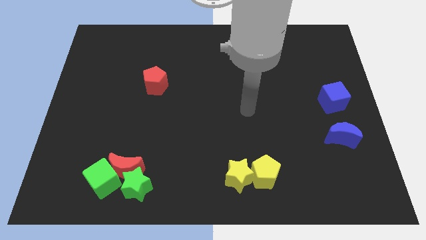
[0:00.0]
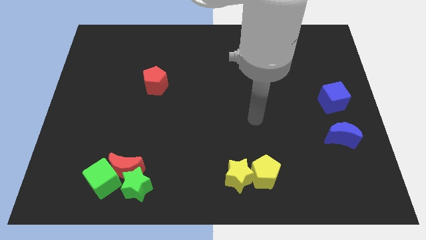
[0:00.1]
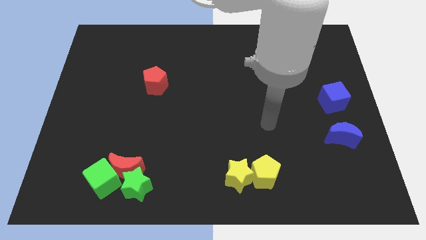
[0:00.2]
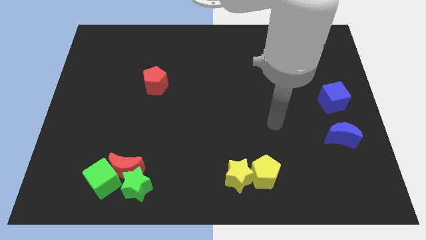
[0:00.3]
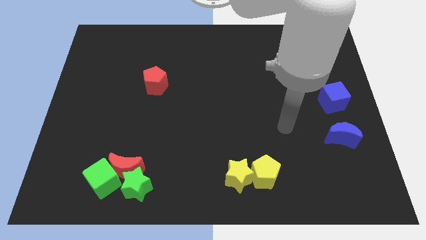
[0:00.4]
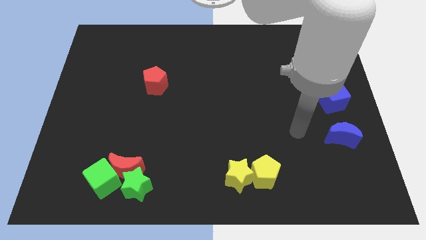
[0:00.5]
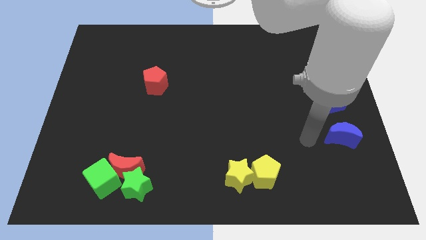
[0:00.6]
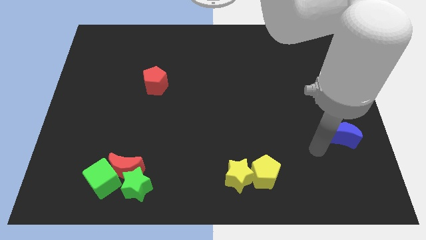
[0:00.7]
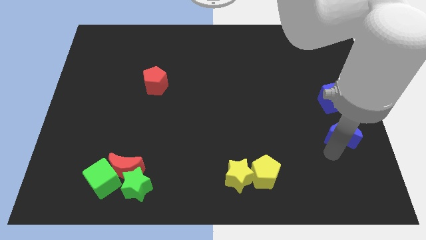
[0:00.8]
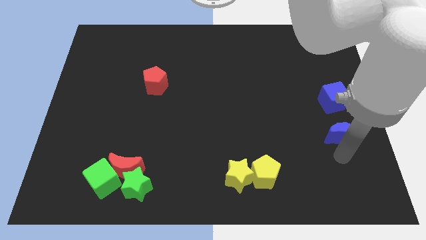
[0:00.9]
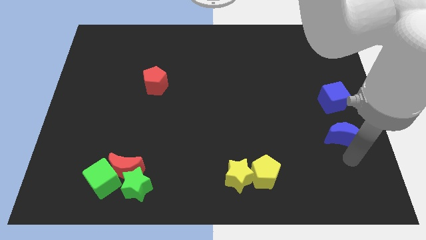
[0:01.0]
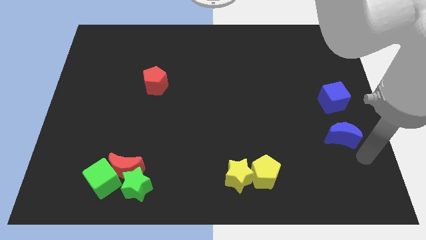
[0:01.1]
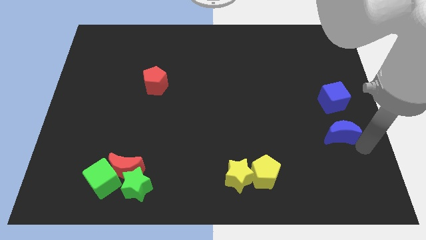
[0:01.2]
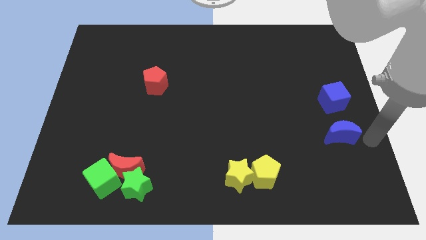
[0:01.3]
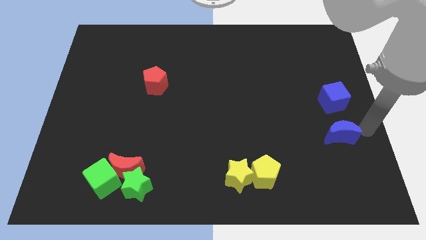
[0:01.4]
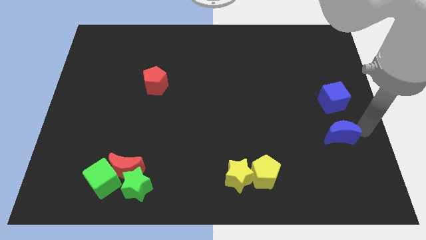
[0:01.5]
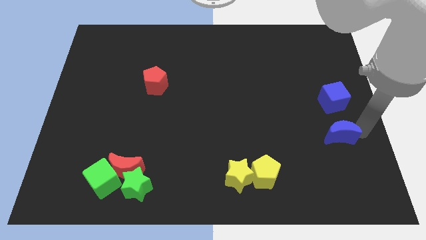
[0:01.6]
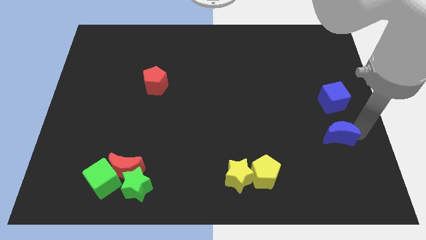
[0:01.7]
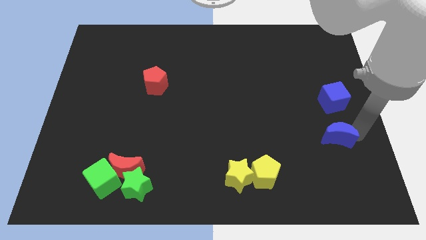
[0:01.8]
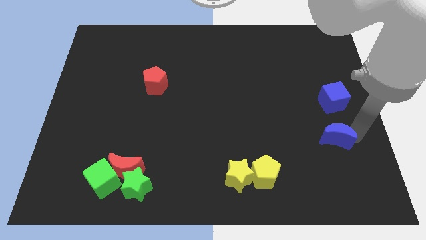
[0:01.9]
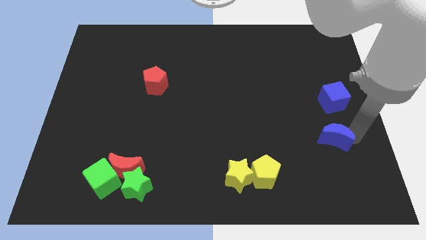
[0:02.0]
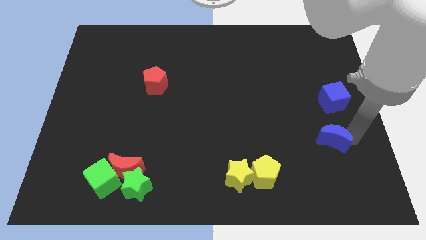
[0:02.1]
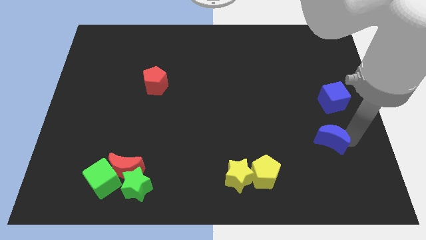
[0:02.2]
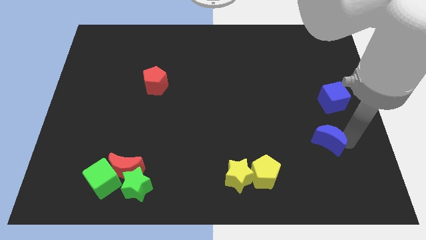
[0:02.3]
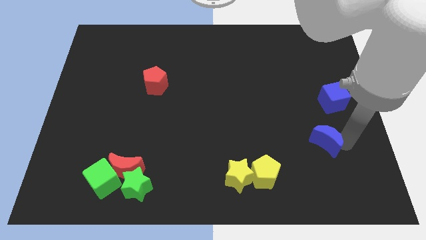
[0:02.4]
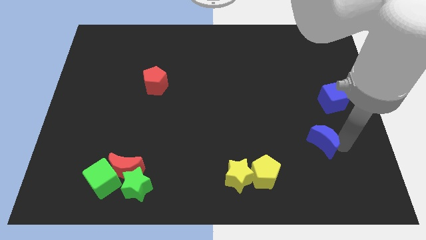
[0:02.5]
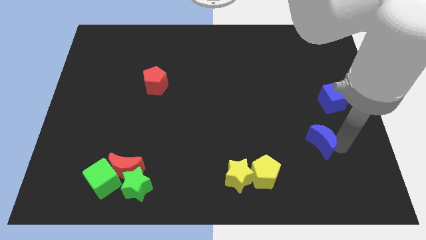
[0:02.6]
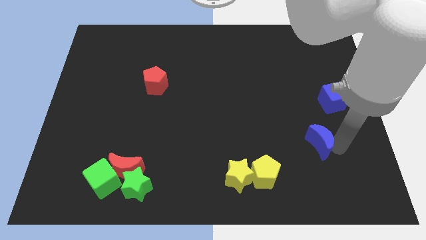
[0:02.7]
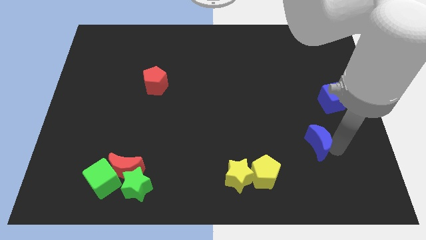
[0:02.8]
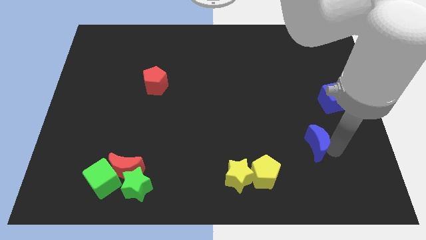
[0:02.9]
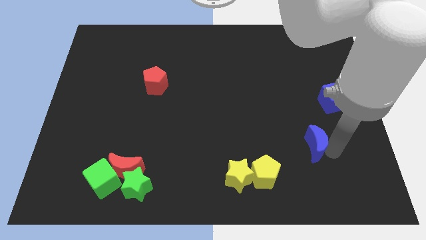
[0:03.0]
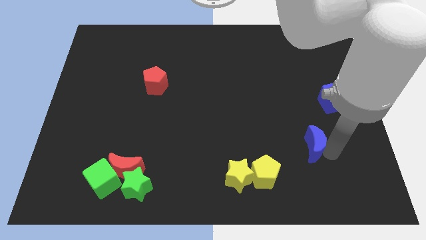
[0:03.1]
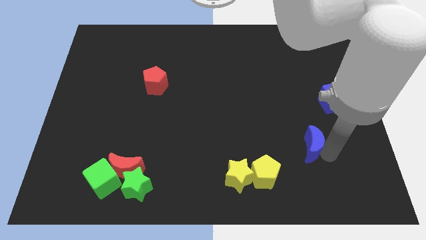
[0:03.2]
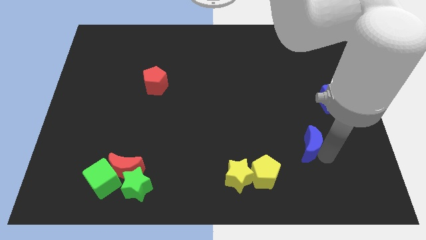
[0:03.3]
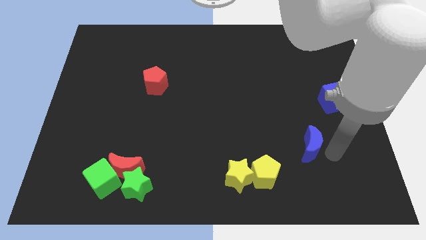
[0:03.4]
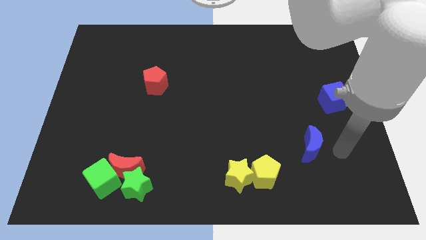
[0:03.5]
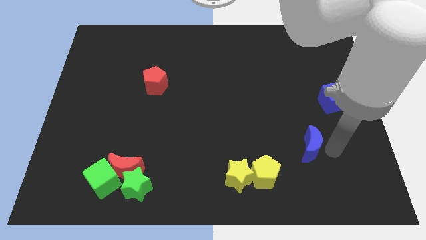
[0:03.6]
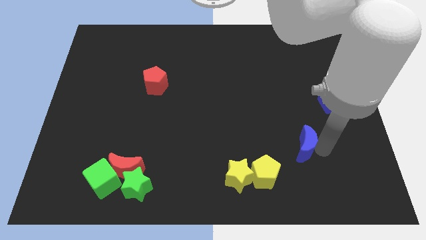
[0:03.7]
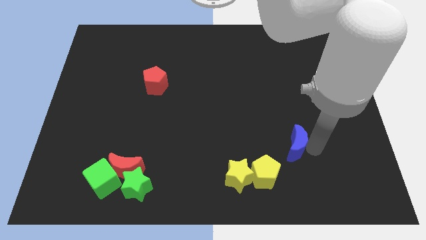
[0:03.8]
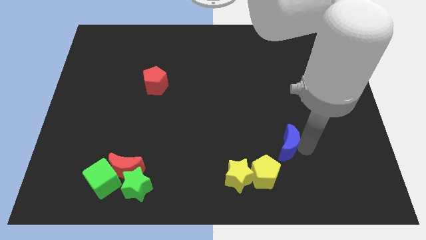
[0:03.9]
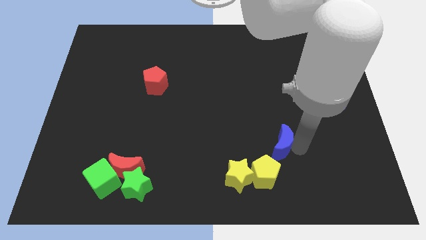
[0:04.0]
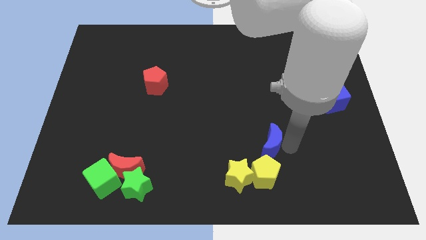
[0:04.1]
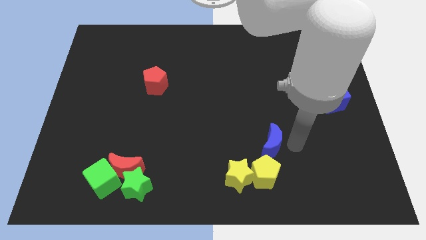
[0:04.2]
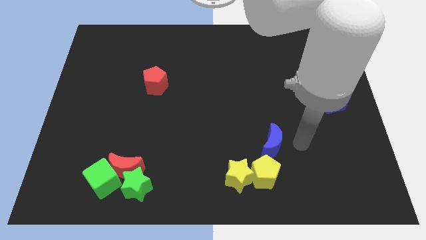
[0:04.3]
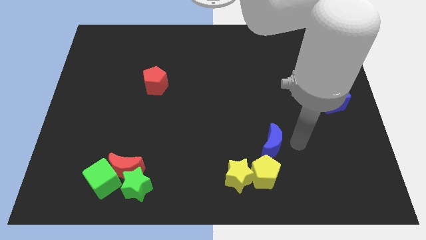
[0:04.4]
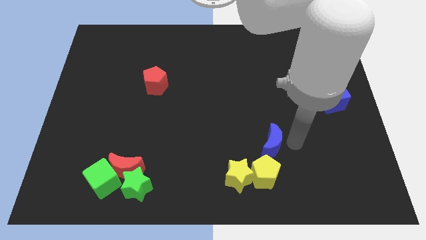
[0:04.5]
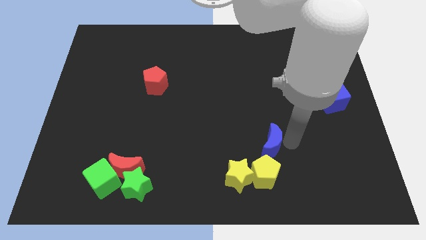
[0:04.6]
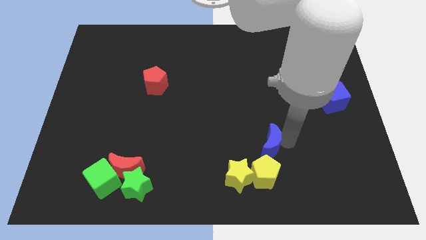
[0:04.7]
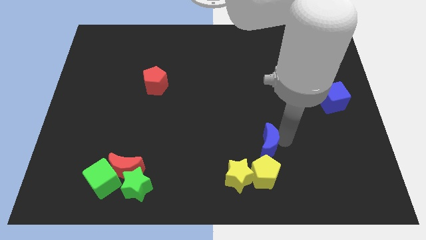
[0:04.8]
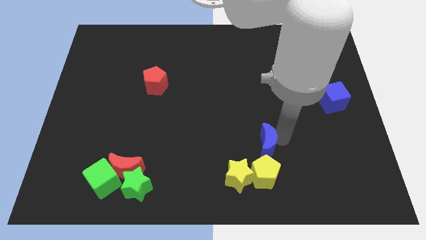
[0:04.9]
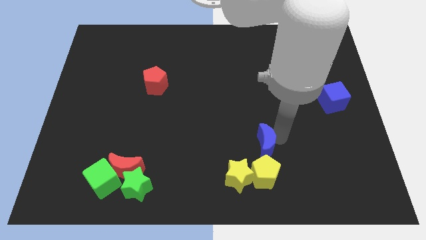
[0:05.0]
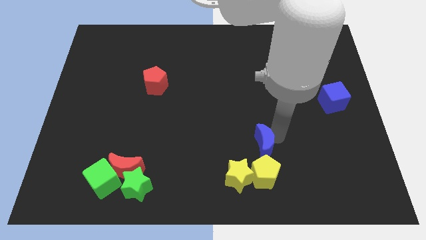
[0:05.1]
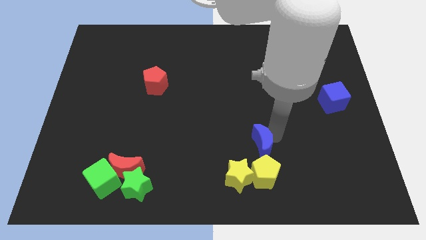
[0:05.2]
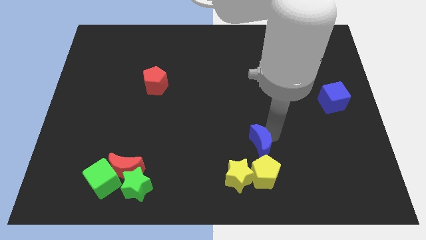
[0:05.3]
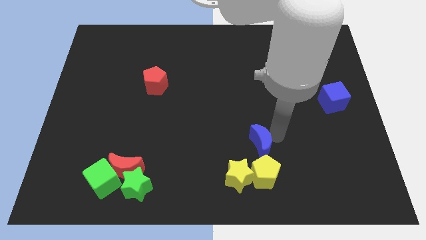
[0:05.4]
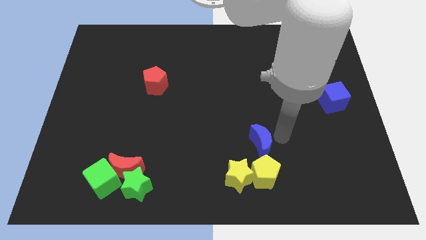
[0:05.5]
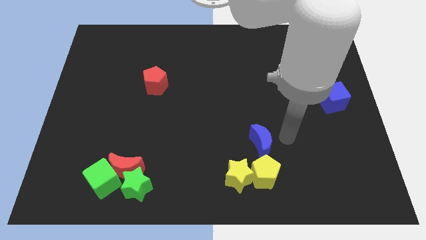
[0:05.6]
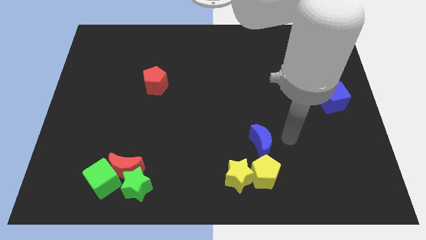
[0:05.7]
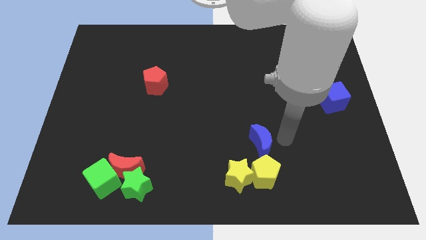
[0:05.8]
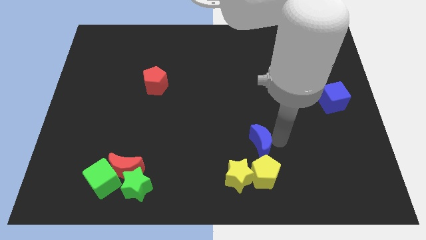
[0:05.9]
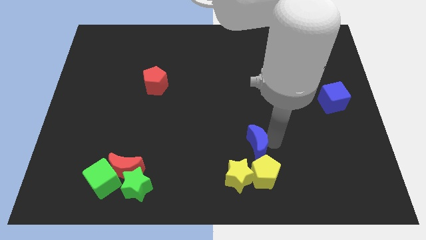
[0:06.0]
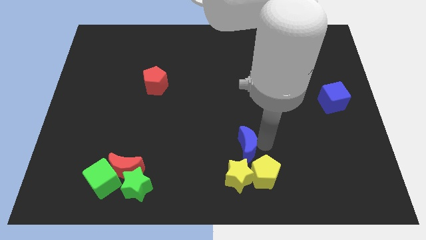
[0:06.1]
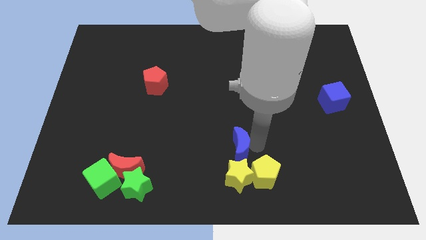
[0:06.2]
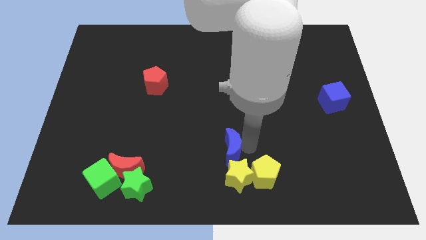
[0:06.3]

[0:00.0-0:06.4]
move the blue moon to the top left side of the yellow star

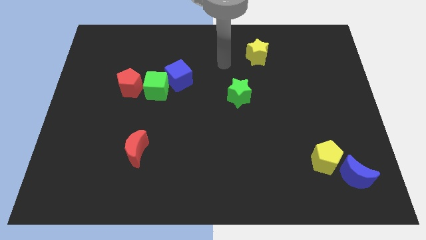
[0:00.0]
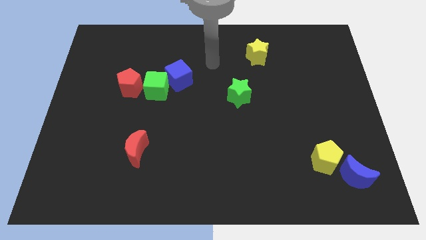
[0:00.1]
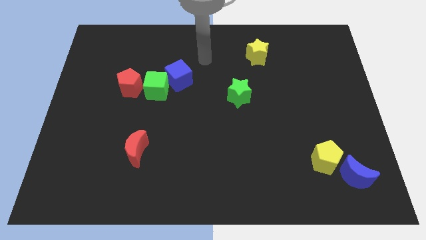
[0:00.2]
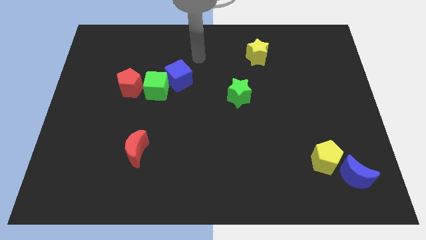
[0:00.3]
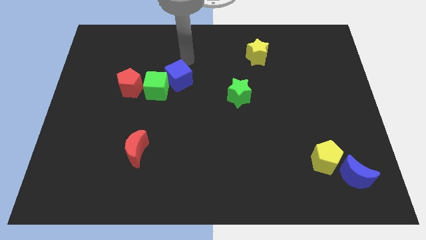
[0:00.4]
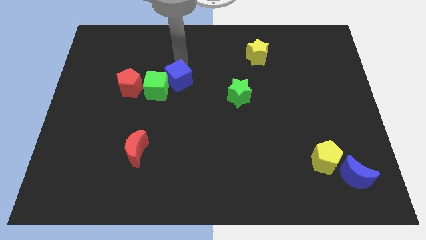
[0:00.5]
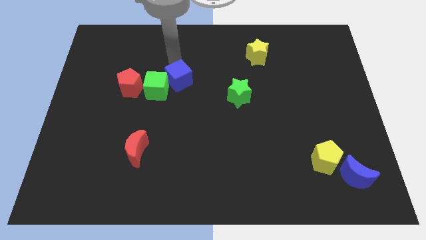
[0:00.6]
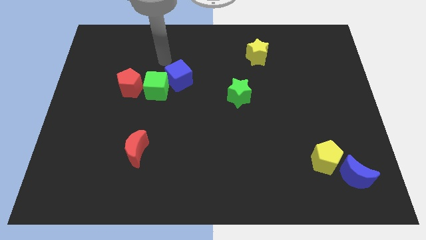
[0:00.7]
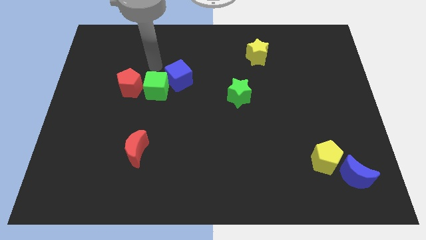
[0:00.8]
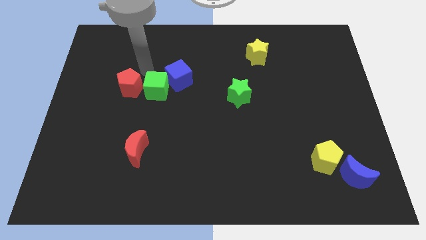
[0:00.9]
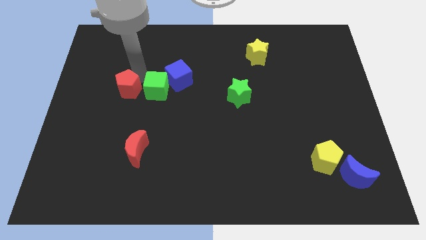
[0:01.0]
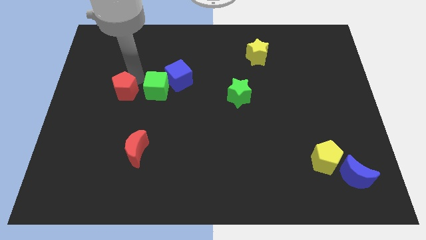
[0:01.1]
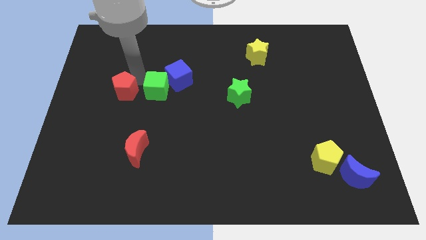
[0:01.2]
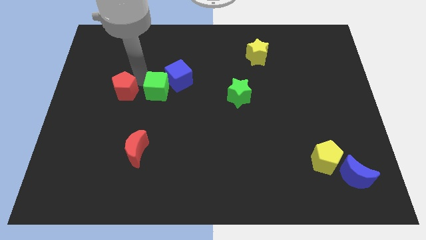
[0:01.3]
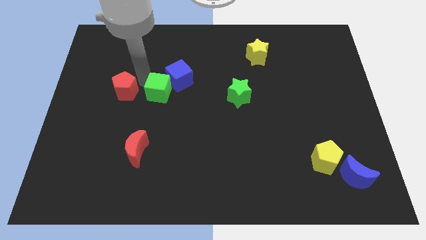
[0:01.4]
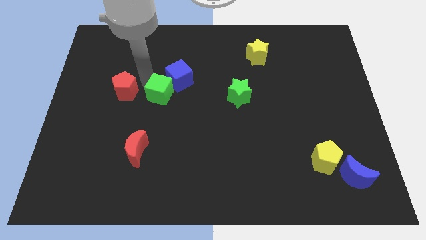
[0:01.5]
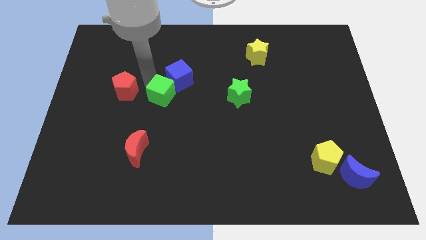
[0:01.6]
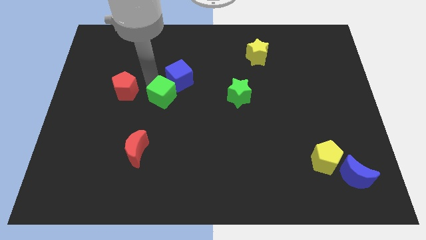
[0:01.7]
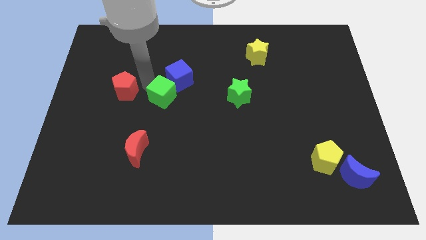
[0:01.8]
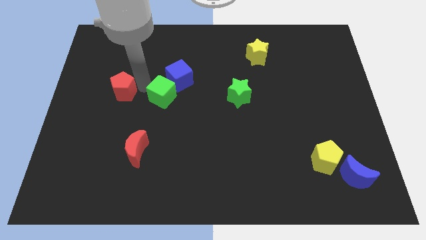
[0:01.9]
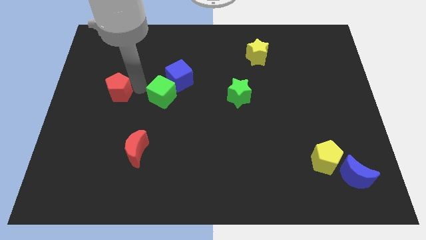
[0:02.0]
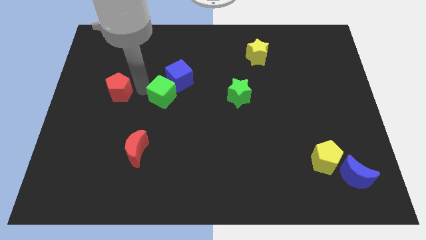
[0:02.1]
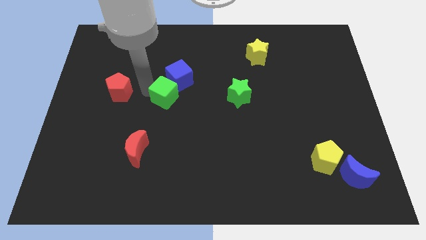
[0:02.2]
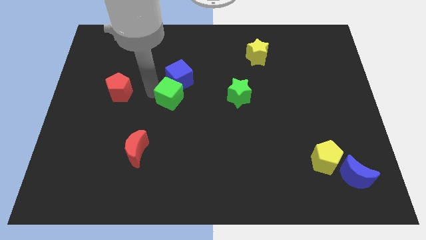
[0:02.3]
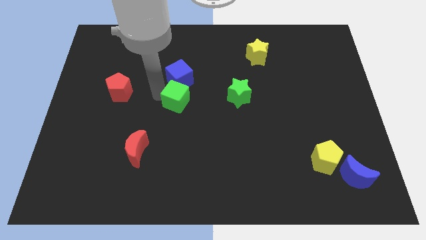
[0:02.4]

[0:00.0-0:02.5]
push the green cube to the bottom right side of the blue cube
